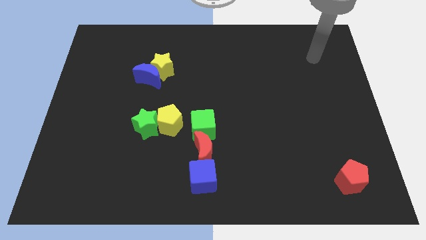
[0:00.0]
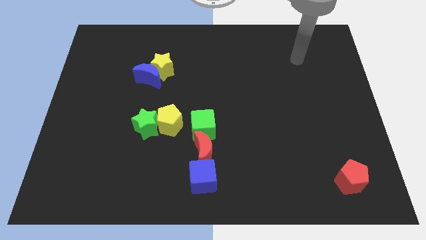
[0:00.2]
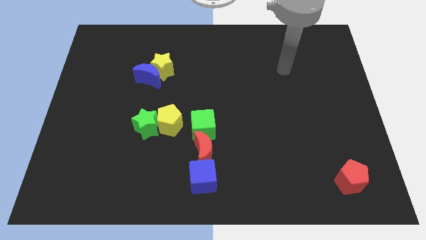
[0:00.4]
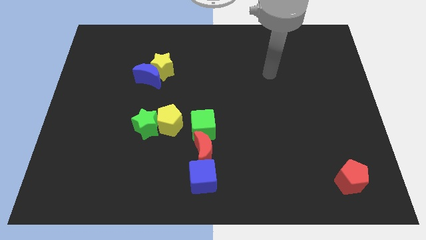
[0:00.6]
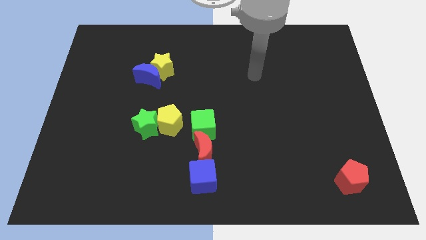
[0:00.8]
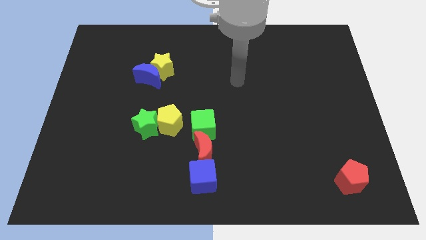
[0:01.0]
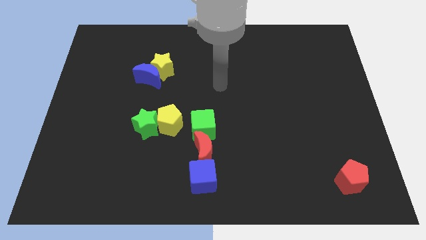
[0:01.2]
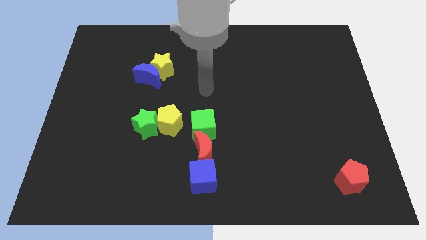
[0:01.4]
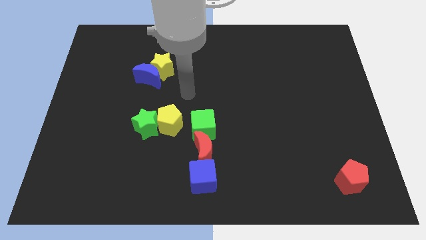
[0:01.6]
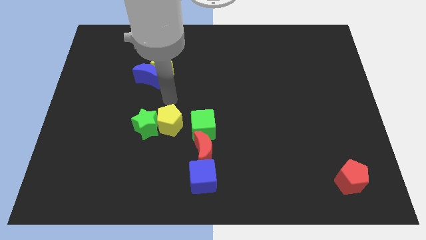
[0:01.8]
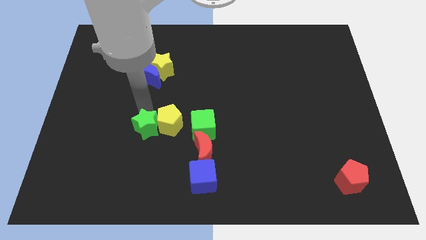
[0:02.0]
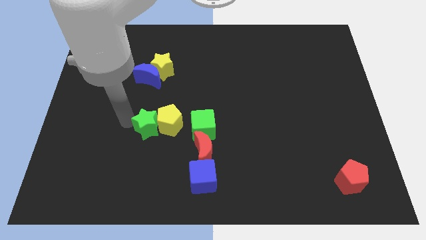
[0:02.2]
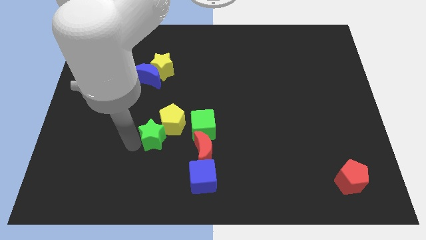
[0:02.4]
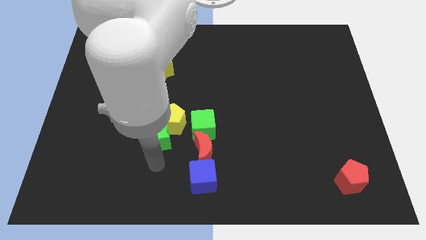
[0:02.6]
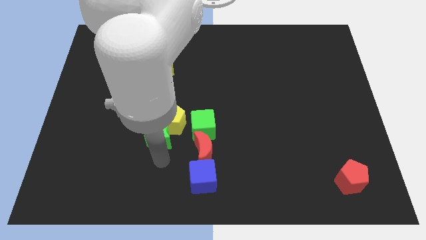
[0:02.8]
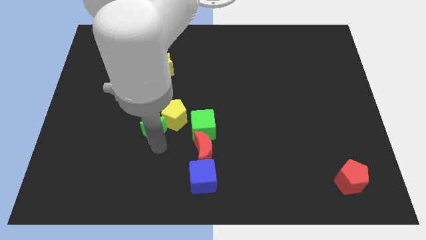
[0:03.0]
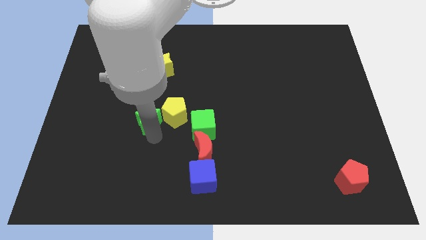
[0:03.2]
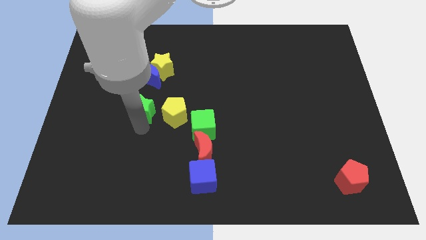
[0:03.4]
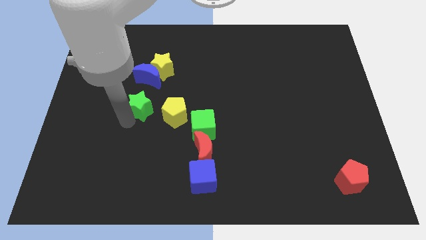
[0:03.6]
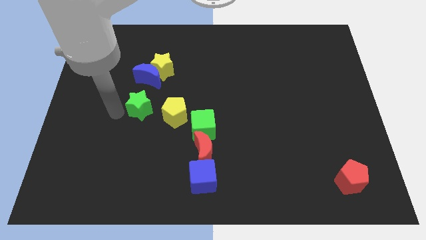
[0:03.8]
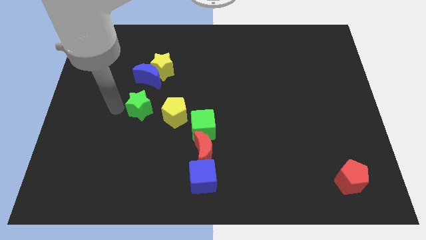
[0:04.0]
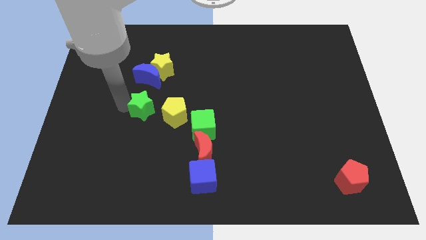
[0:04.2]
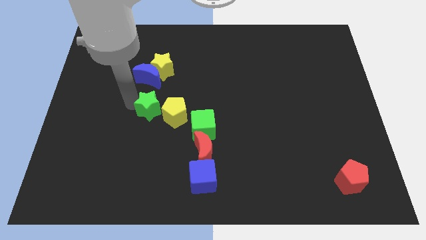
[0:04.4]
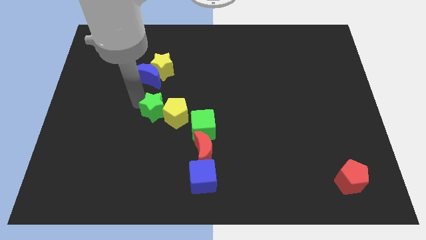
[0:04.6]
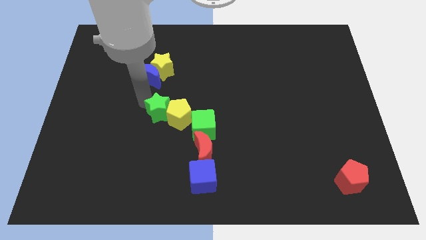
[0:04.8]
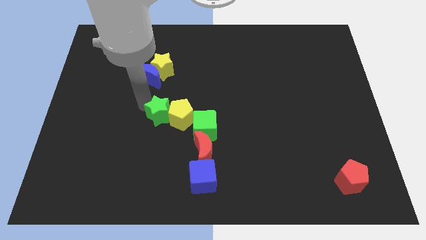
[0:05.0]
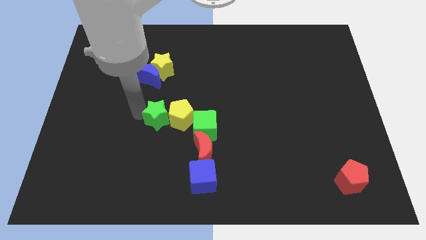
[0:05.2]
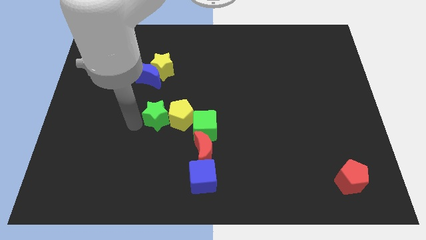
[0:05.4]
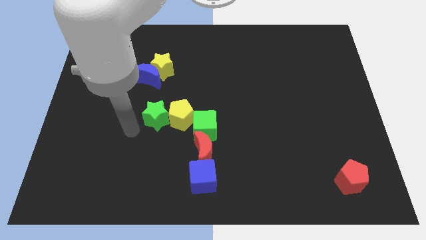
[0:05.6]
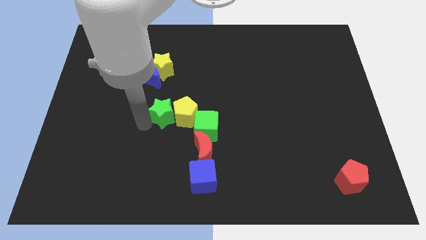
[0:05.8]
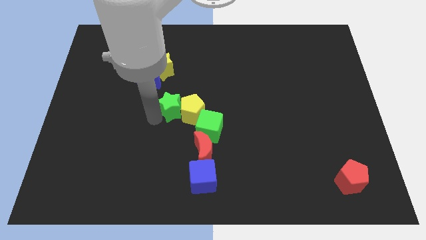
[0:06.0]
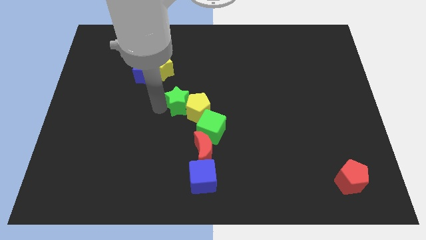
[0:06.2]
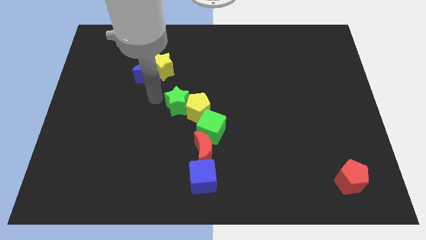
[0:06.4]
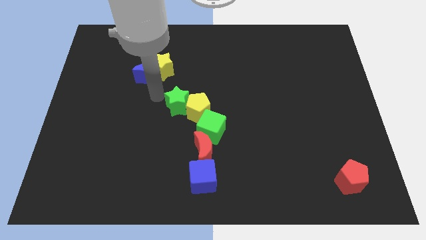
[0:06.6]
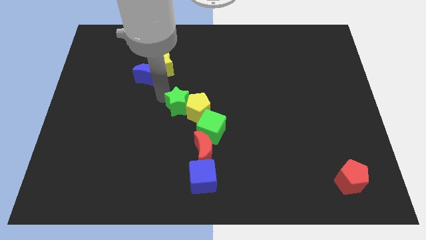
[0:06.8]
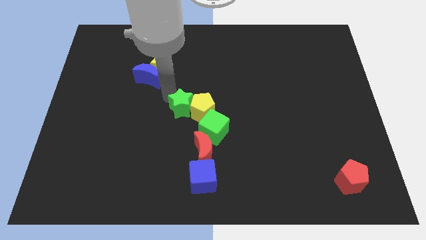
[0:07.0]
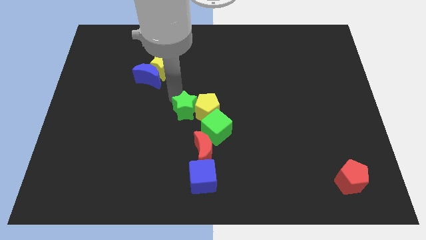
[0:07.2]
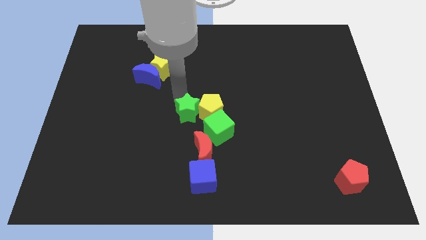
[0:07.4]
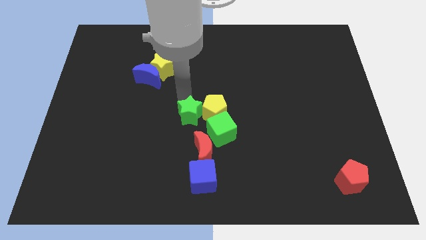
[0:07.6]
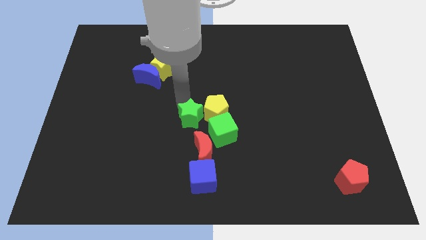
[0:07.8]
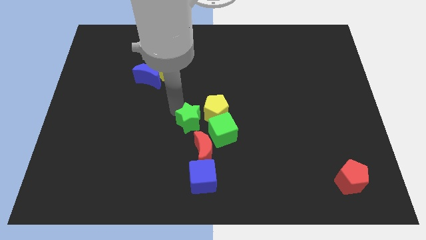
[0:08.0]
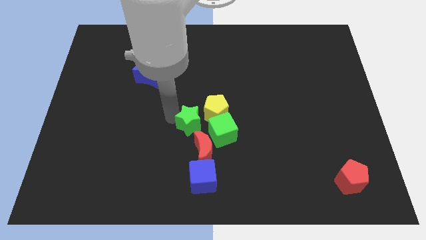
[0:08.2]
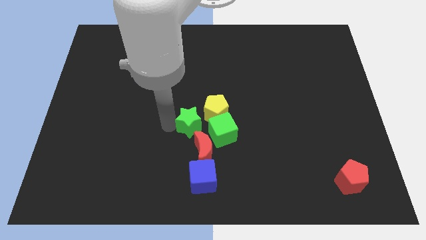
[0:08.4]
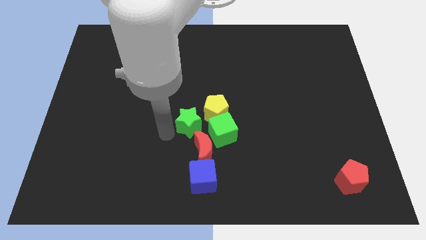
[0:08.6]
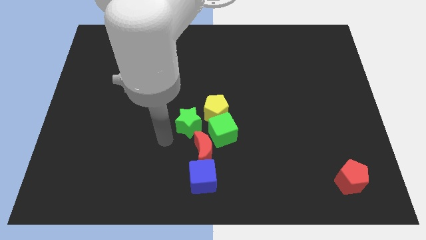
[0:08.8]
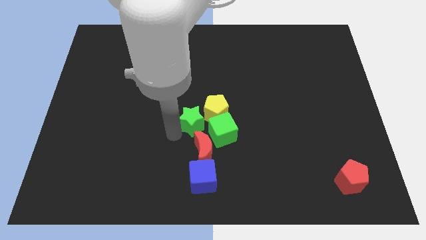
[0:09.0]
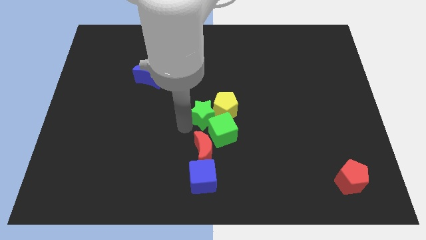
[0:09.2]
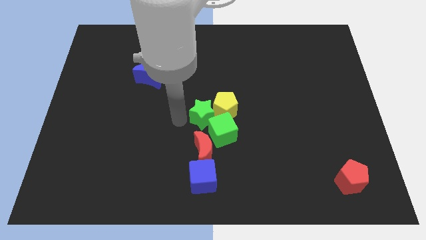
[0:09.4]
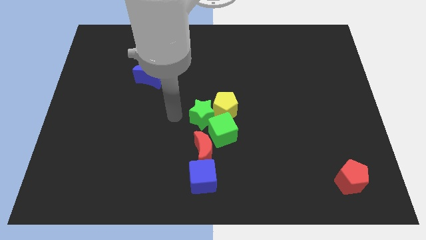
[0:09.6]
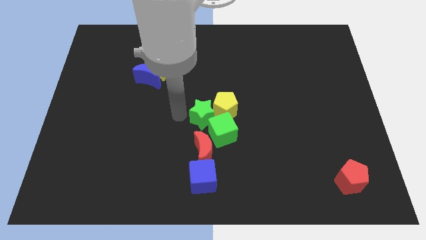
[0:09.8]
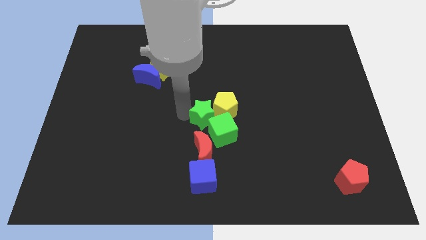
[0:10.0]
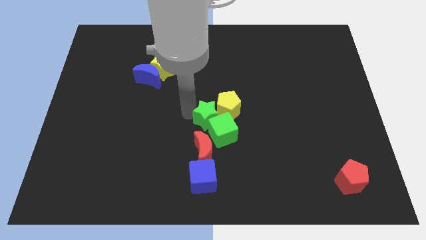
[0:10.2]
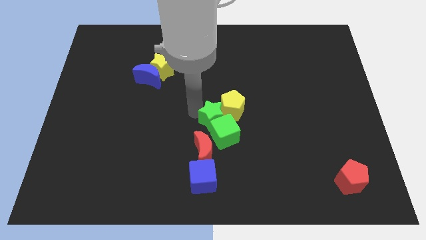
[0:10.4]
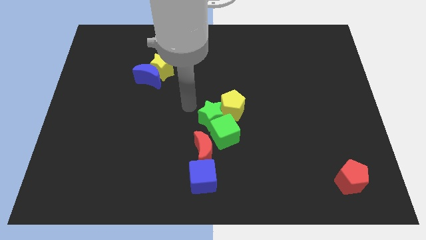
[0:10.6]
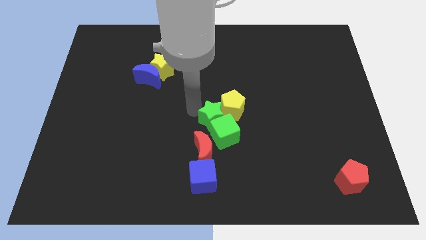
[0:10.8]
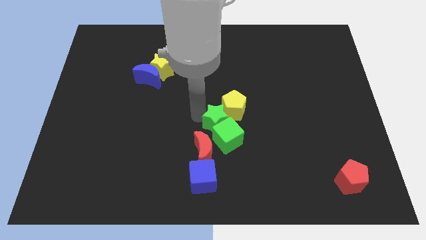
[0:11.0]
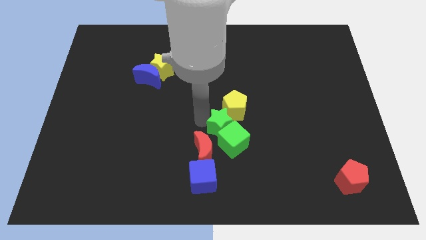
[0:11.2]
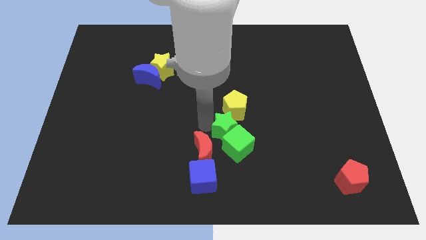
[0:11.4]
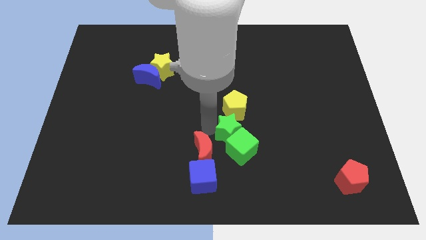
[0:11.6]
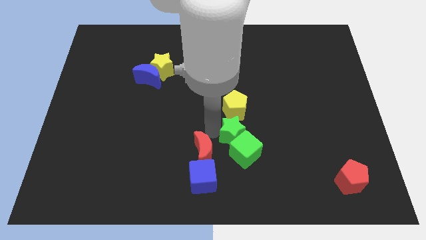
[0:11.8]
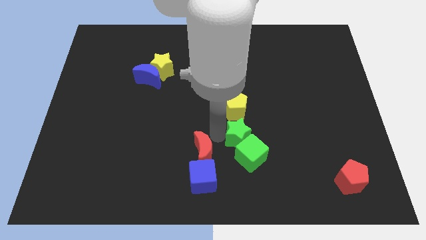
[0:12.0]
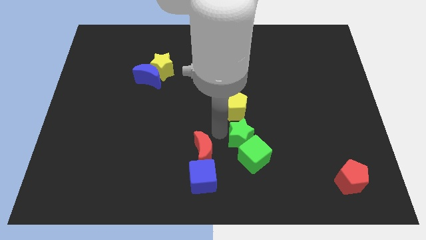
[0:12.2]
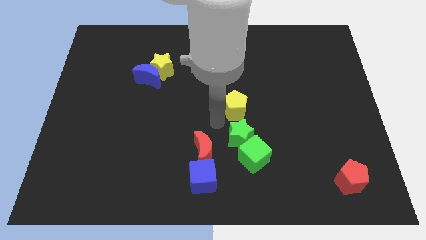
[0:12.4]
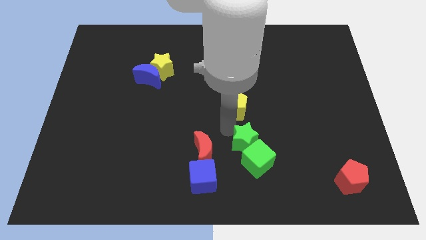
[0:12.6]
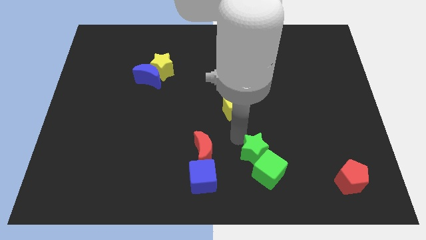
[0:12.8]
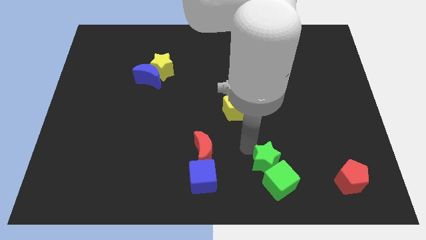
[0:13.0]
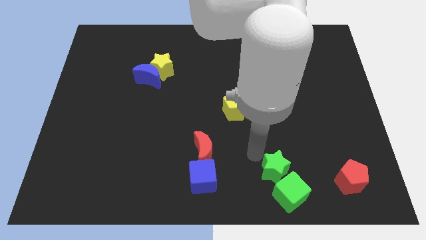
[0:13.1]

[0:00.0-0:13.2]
slide the green star just left of the red pentagon
